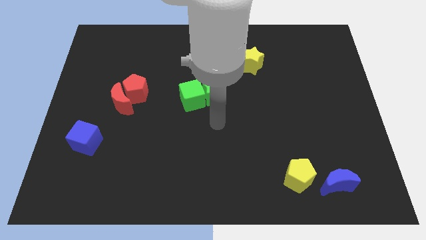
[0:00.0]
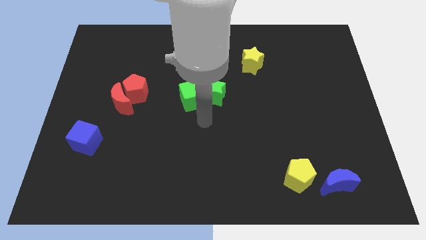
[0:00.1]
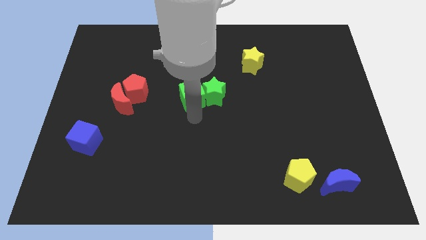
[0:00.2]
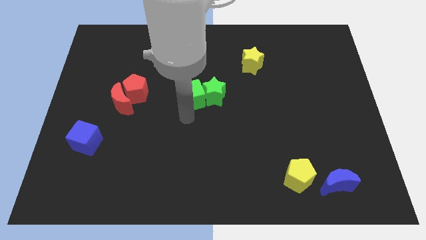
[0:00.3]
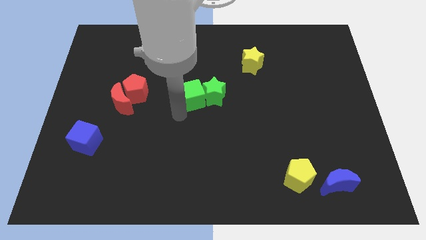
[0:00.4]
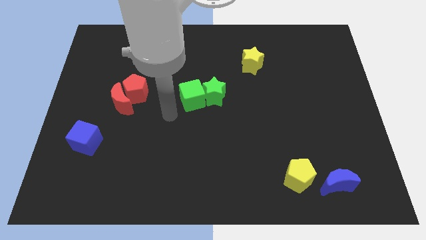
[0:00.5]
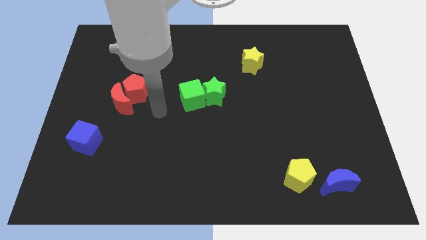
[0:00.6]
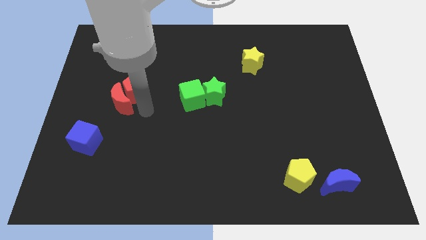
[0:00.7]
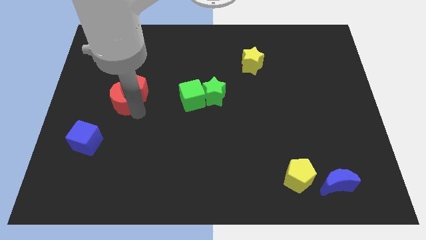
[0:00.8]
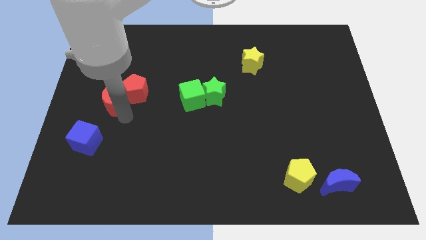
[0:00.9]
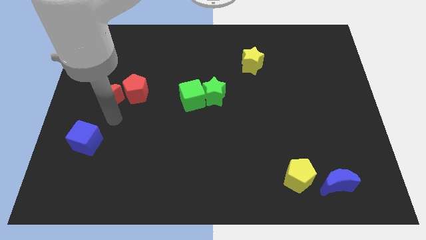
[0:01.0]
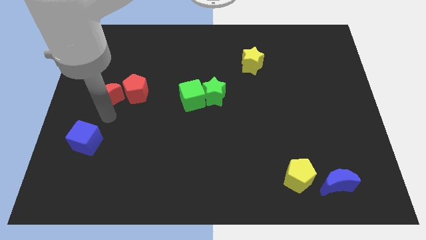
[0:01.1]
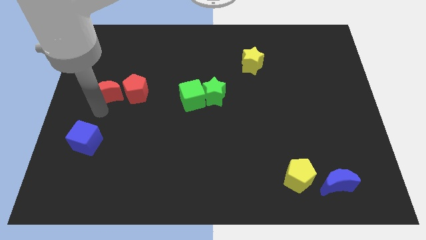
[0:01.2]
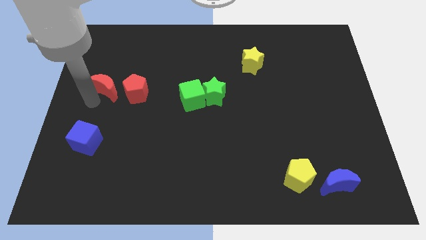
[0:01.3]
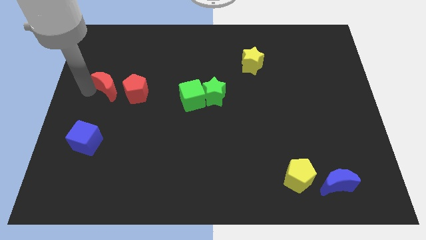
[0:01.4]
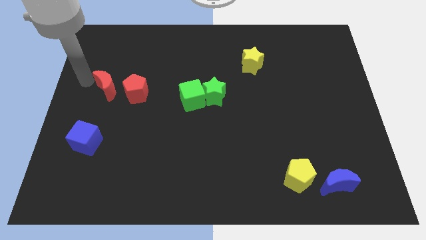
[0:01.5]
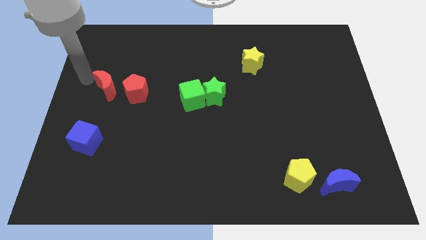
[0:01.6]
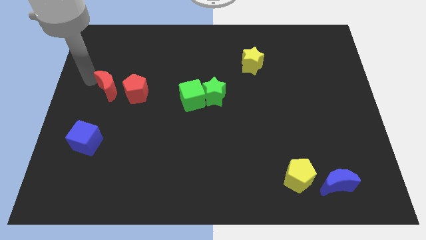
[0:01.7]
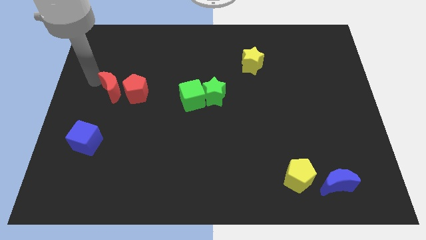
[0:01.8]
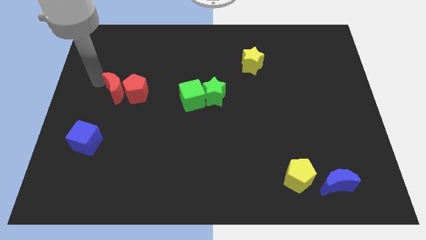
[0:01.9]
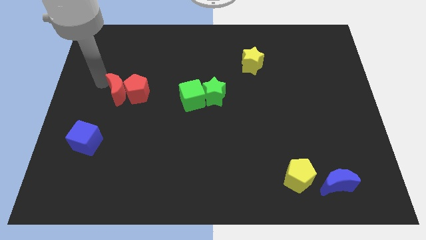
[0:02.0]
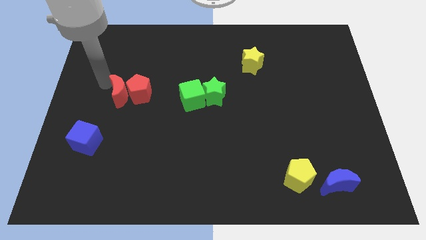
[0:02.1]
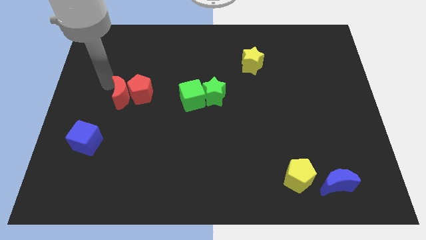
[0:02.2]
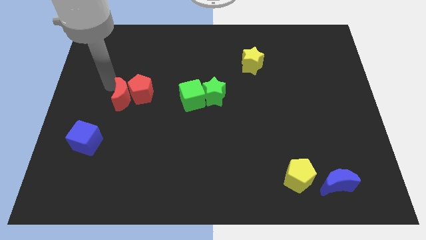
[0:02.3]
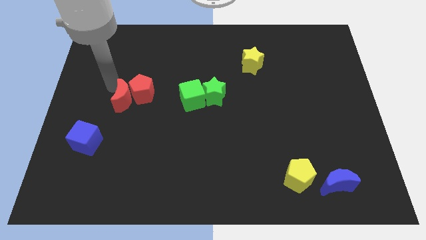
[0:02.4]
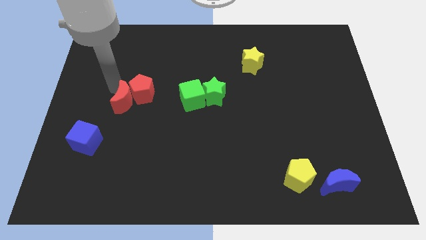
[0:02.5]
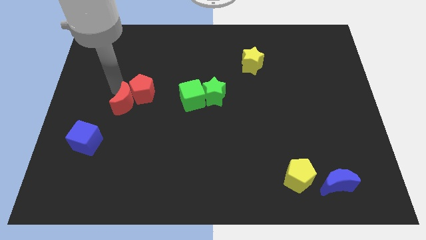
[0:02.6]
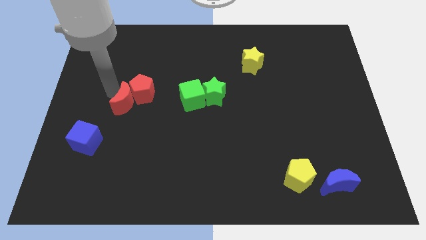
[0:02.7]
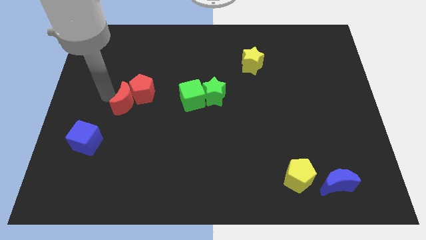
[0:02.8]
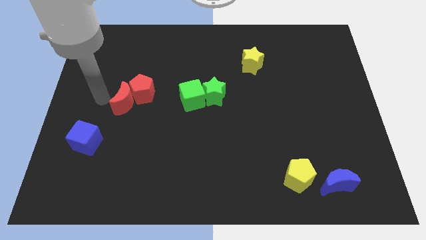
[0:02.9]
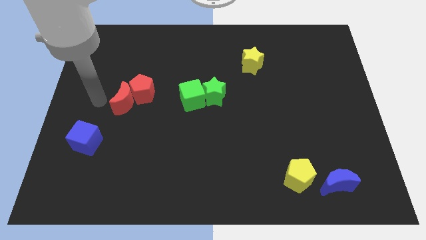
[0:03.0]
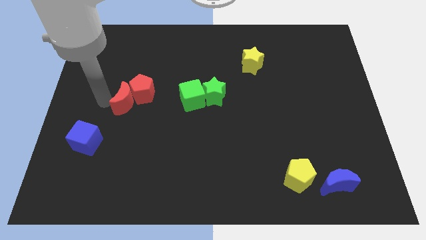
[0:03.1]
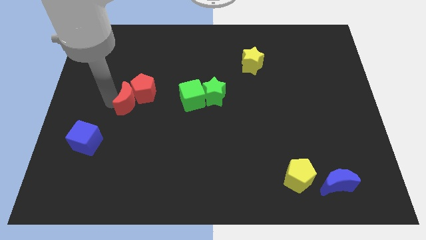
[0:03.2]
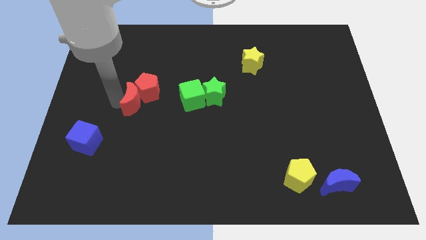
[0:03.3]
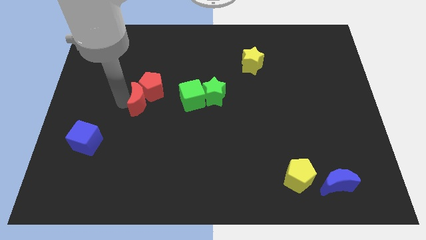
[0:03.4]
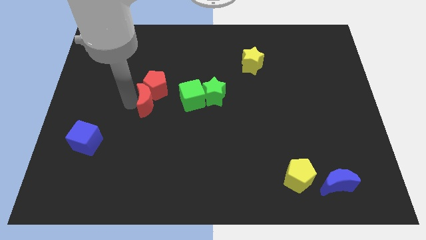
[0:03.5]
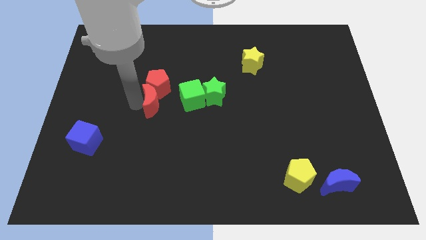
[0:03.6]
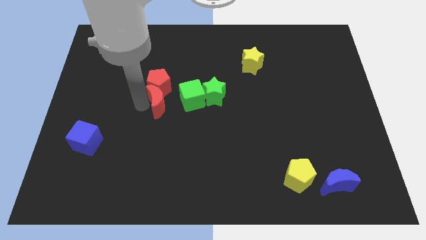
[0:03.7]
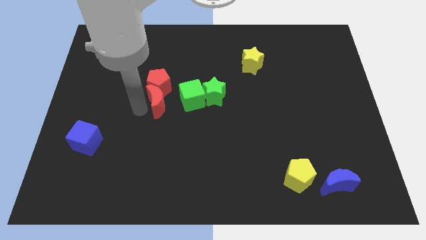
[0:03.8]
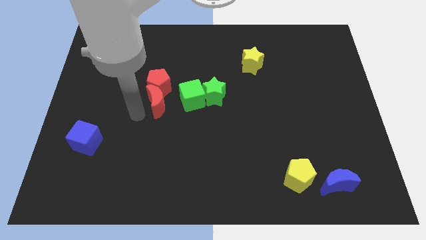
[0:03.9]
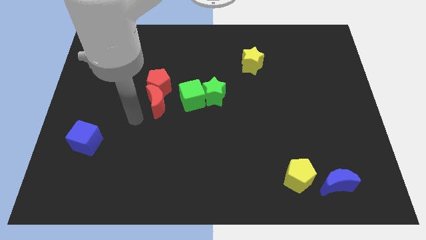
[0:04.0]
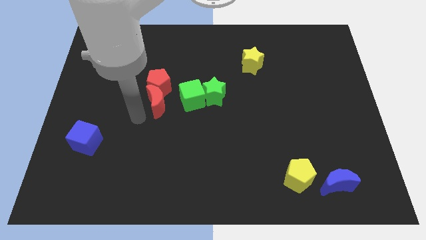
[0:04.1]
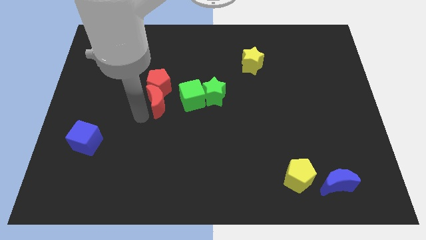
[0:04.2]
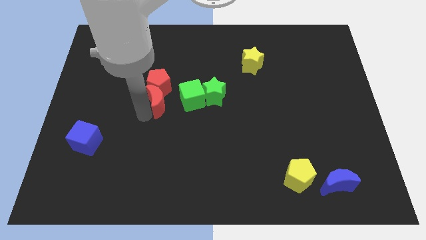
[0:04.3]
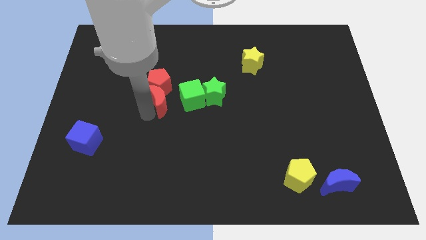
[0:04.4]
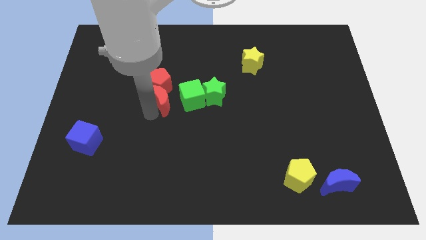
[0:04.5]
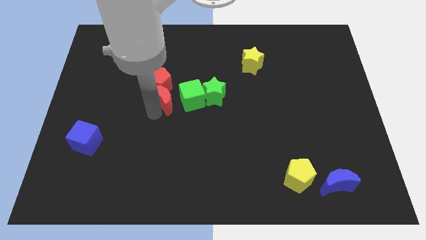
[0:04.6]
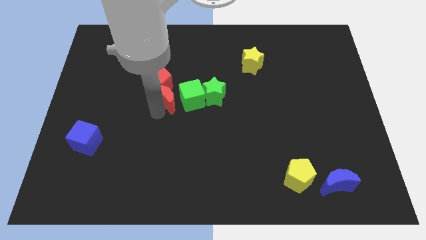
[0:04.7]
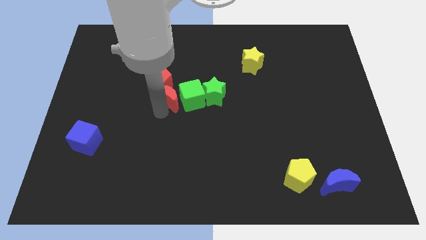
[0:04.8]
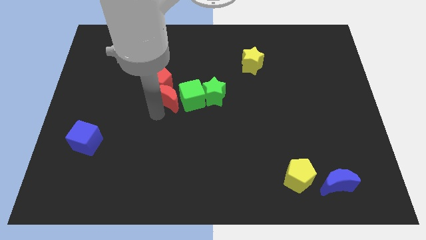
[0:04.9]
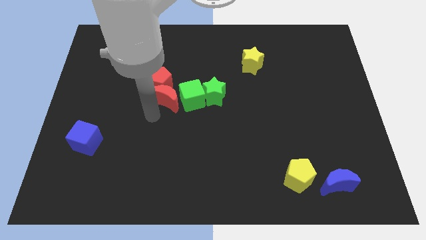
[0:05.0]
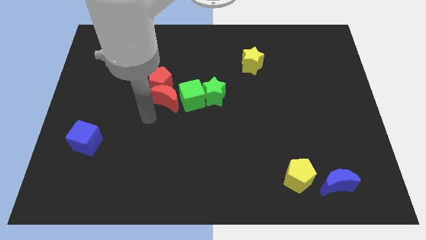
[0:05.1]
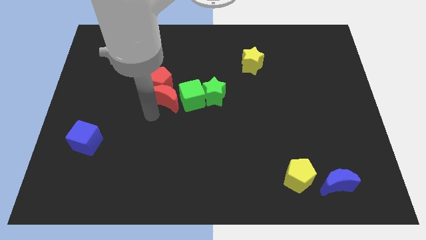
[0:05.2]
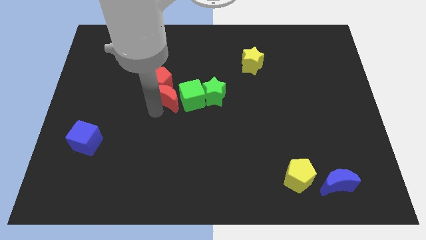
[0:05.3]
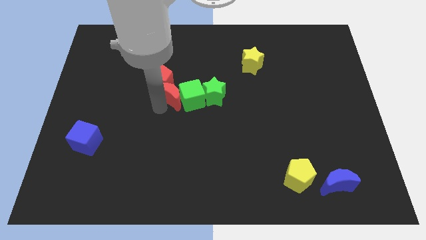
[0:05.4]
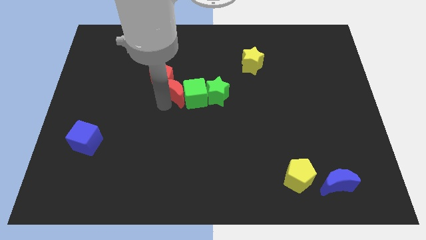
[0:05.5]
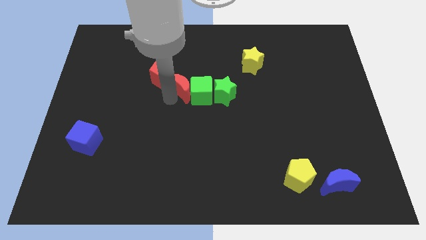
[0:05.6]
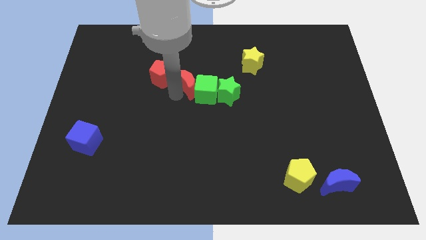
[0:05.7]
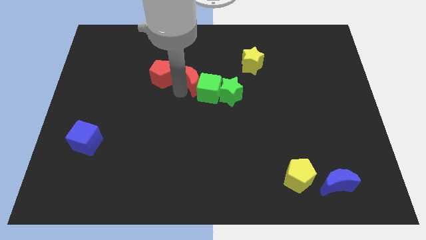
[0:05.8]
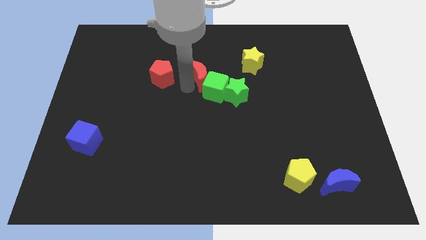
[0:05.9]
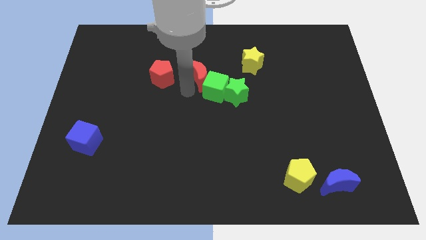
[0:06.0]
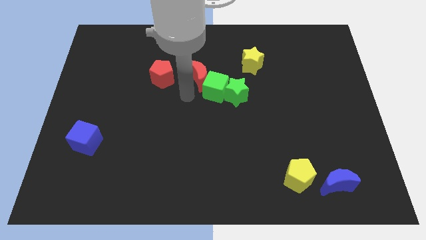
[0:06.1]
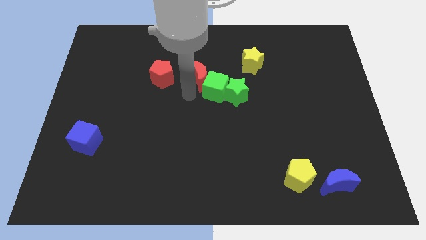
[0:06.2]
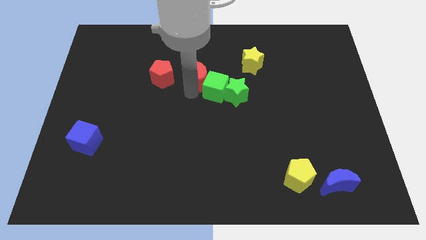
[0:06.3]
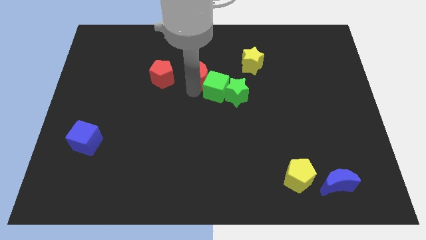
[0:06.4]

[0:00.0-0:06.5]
move the red moon left of the yellow star
